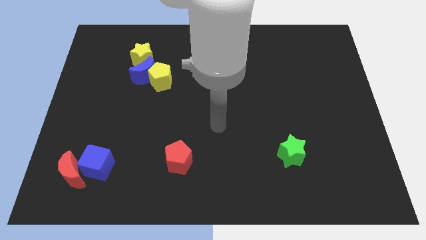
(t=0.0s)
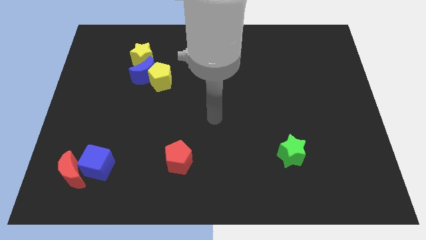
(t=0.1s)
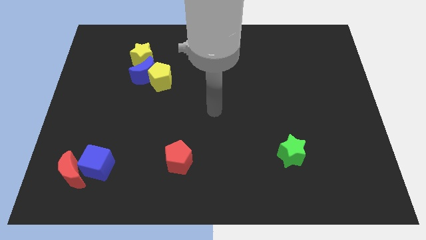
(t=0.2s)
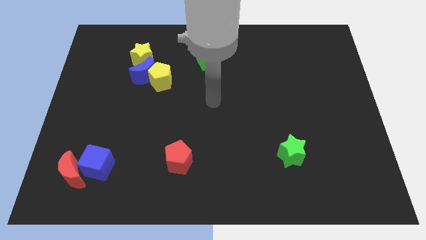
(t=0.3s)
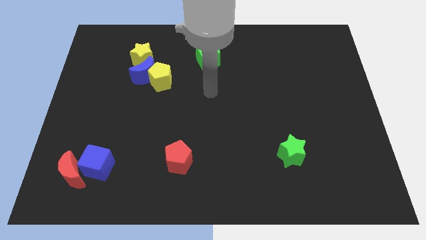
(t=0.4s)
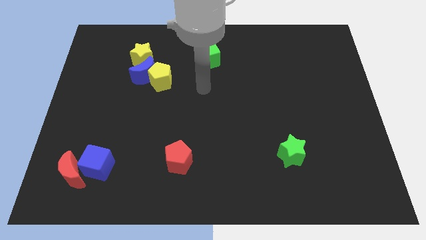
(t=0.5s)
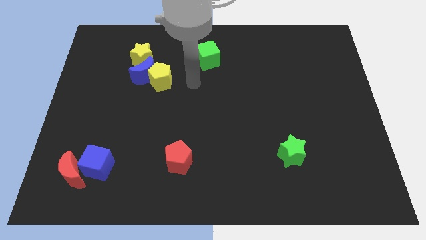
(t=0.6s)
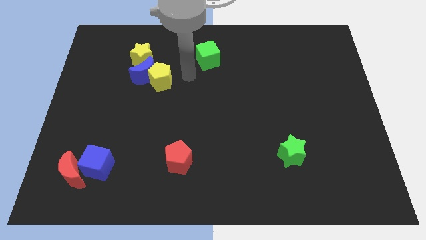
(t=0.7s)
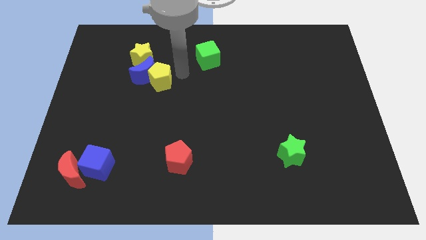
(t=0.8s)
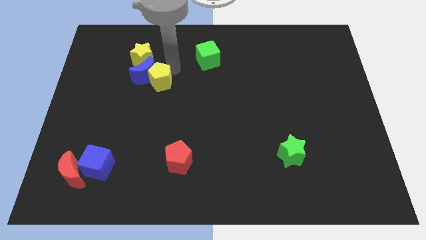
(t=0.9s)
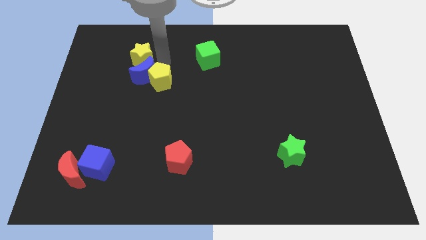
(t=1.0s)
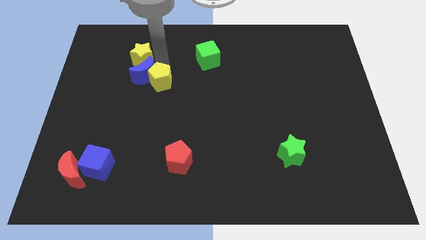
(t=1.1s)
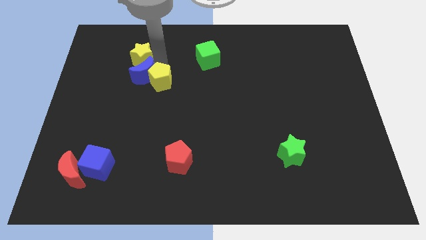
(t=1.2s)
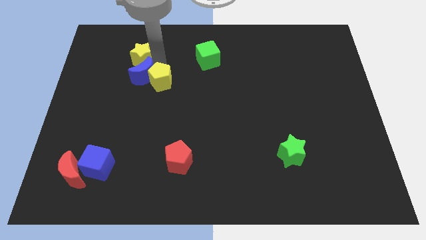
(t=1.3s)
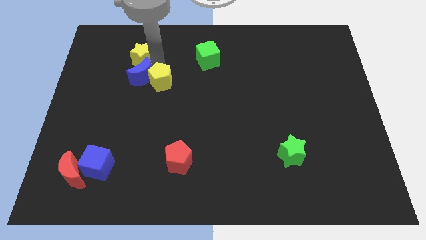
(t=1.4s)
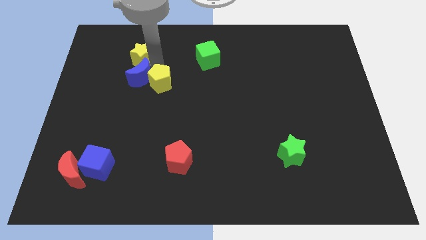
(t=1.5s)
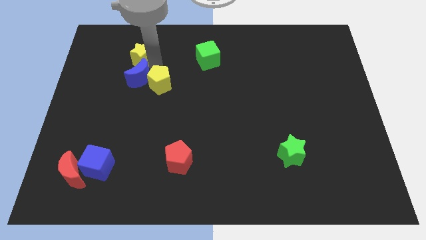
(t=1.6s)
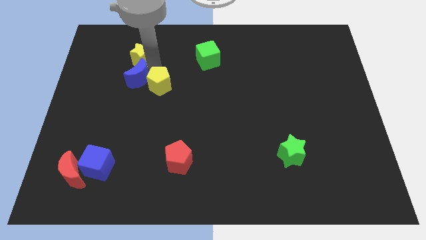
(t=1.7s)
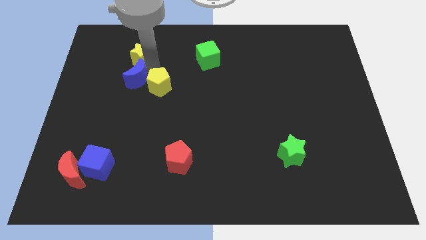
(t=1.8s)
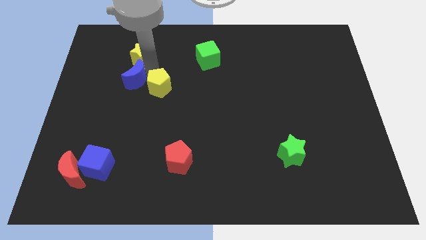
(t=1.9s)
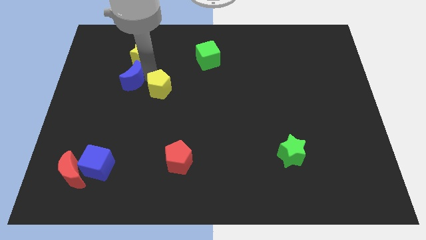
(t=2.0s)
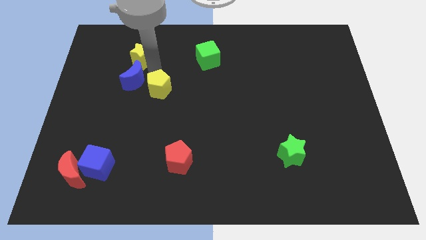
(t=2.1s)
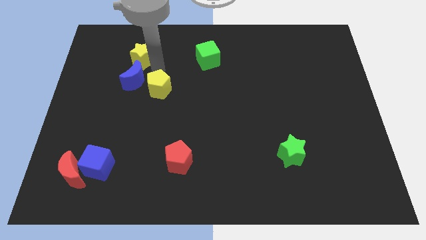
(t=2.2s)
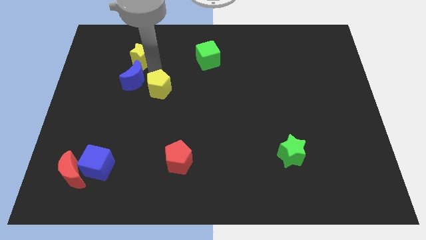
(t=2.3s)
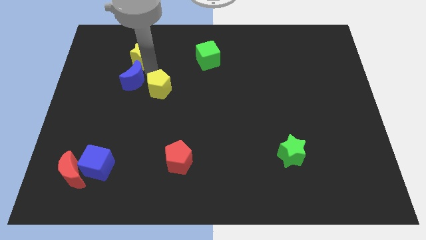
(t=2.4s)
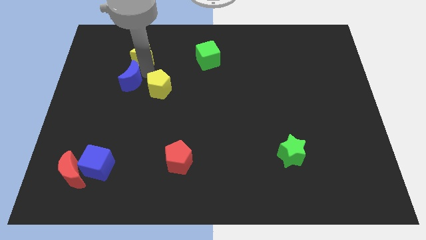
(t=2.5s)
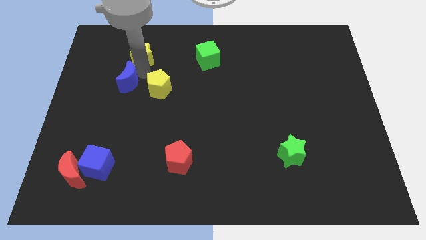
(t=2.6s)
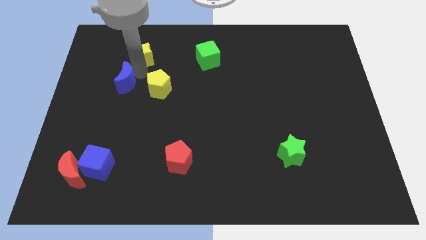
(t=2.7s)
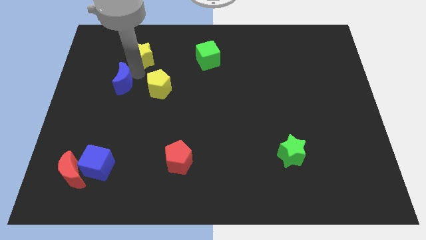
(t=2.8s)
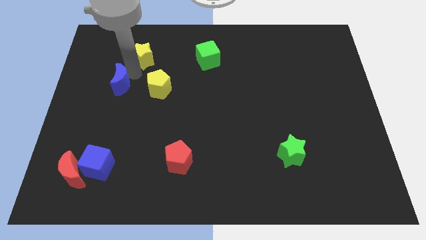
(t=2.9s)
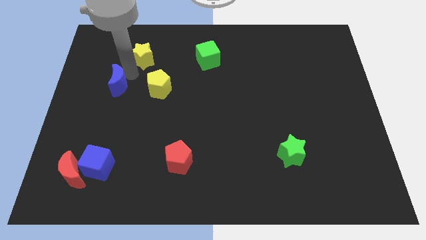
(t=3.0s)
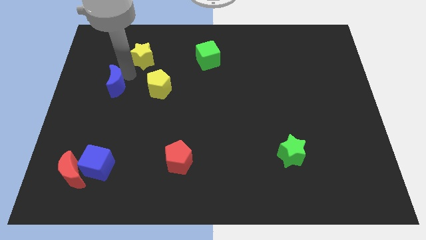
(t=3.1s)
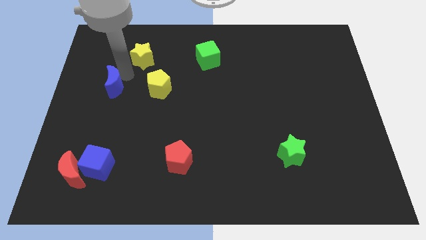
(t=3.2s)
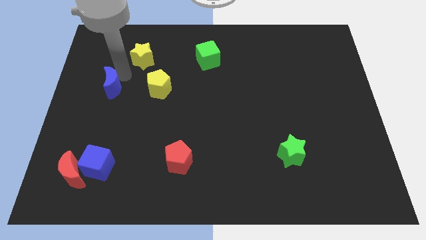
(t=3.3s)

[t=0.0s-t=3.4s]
separate the blue moon from the yellow pentagon and yellow star

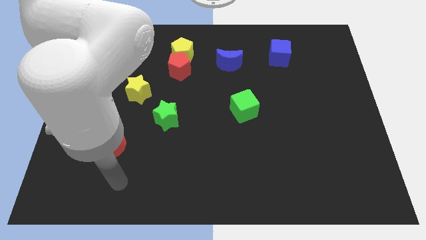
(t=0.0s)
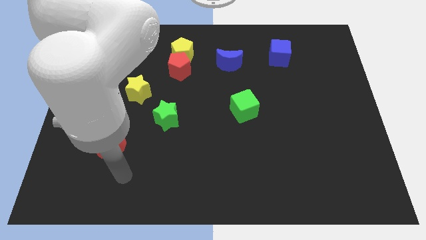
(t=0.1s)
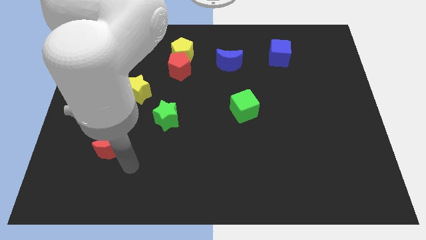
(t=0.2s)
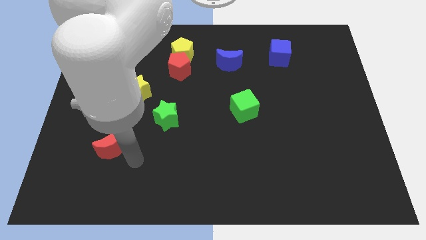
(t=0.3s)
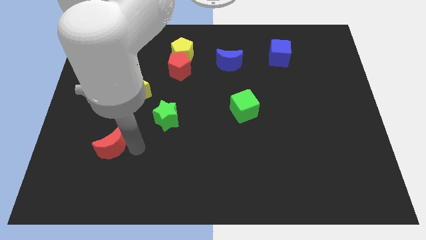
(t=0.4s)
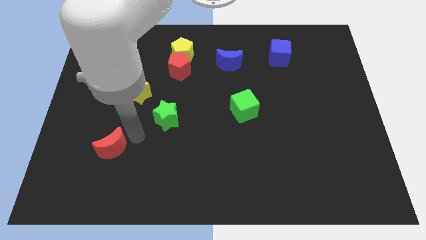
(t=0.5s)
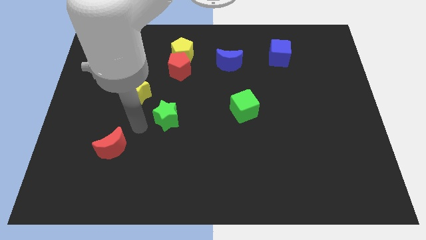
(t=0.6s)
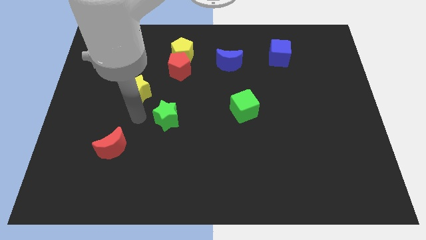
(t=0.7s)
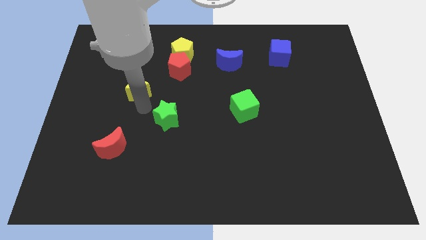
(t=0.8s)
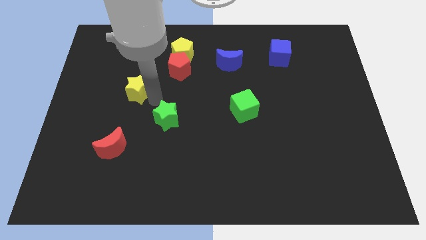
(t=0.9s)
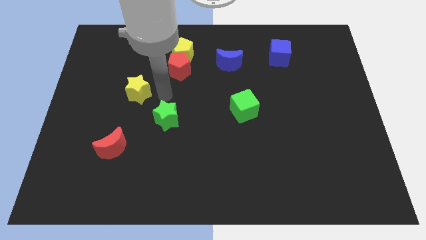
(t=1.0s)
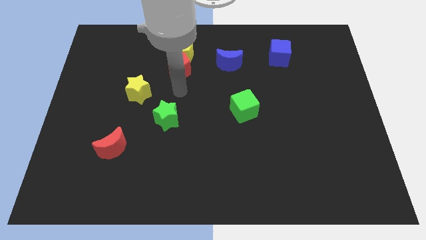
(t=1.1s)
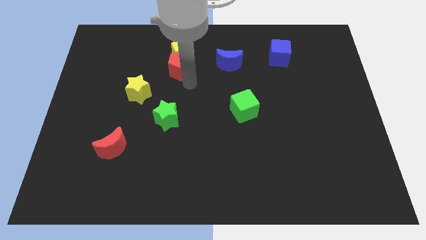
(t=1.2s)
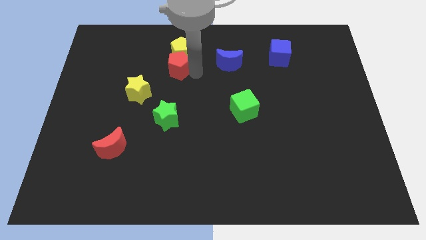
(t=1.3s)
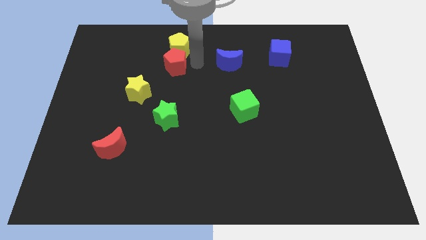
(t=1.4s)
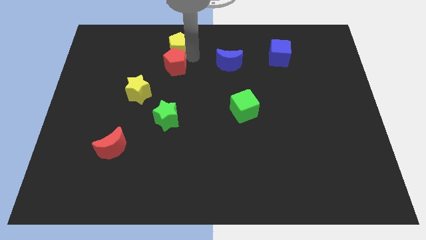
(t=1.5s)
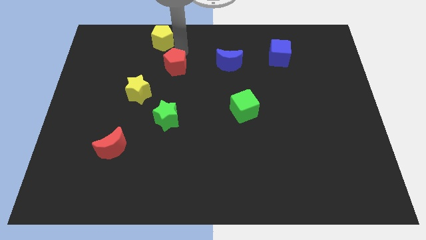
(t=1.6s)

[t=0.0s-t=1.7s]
pull the red pentagon apart from the yellow pentagon

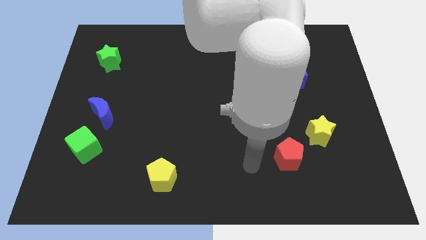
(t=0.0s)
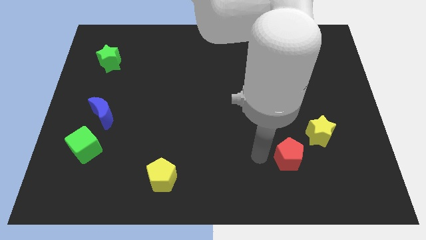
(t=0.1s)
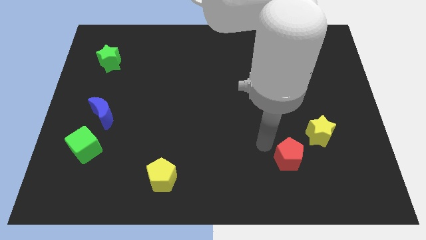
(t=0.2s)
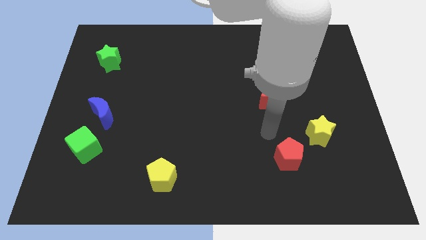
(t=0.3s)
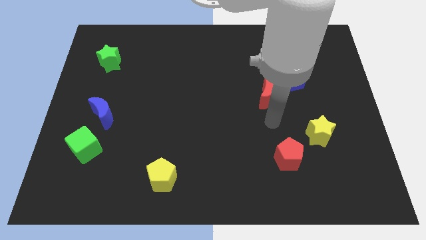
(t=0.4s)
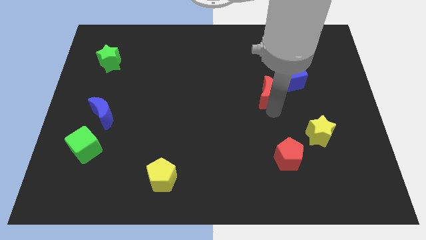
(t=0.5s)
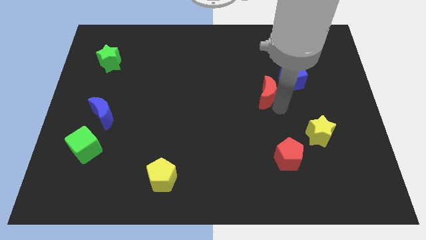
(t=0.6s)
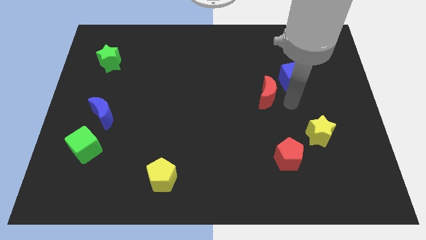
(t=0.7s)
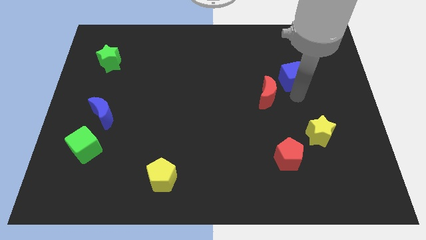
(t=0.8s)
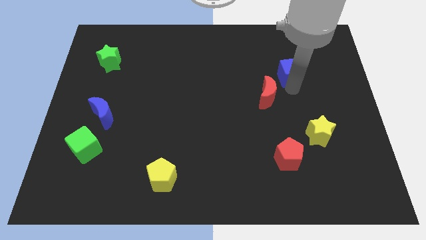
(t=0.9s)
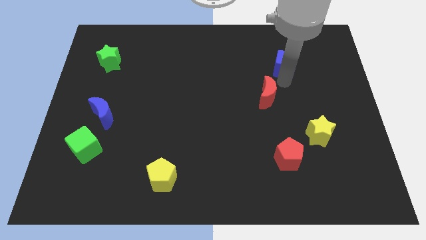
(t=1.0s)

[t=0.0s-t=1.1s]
move the red moon away from the blue cube

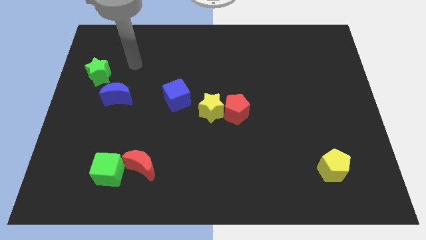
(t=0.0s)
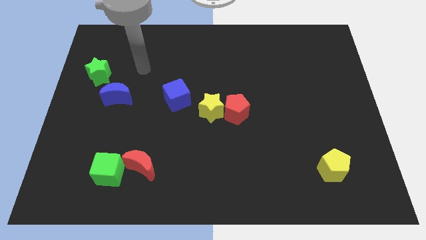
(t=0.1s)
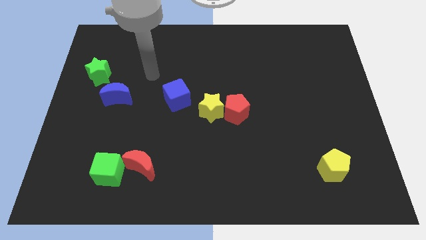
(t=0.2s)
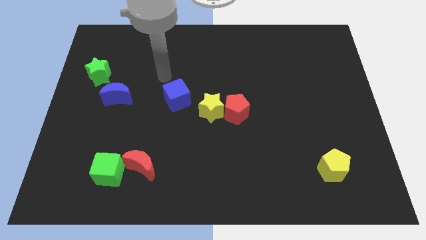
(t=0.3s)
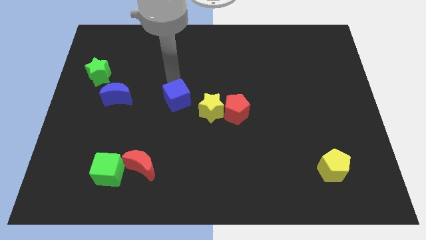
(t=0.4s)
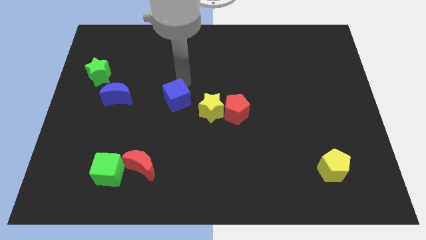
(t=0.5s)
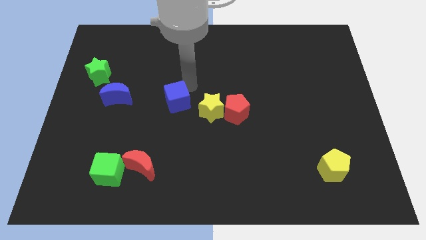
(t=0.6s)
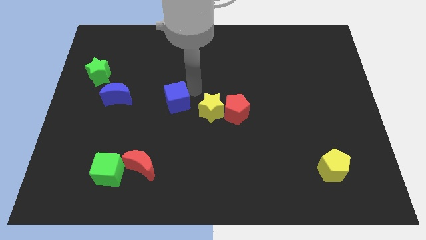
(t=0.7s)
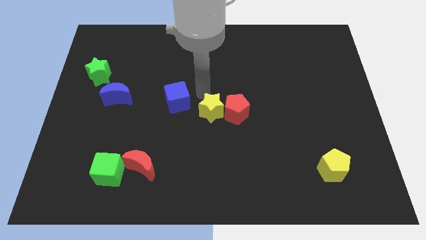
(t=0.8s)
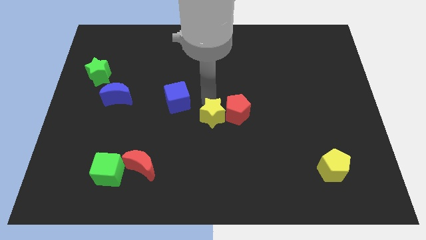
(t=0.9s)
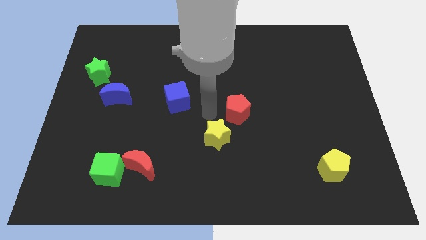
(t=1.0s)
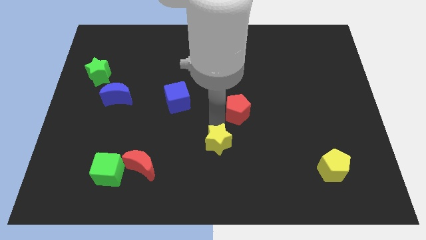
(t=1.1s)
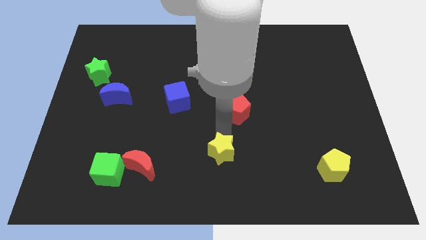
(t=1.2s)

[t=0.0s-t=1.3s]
pull the red pentagon apart from the yellow star

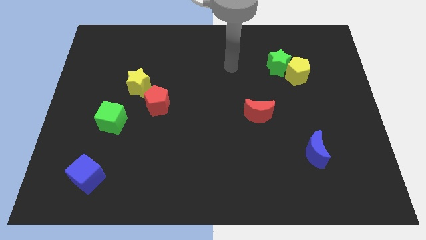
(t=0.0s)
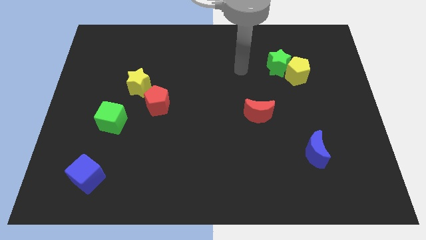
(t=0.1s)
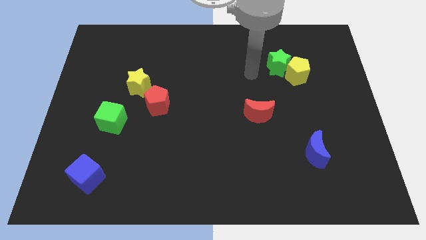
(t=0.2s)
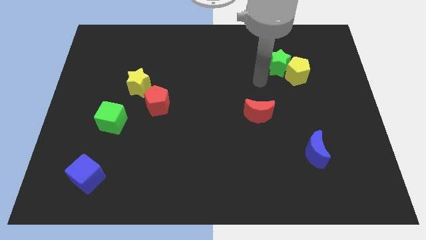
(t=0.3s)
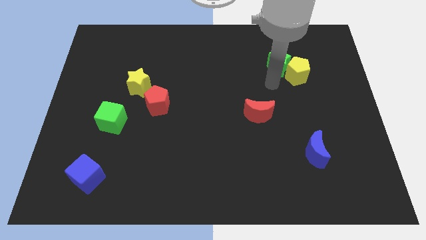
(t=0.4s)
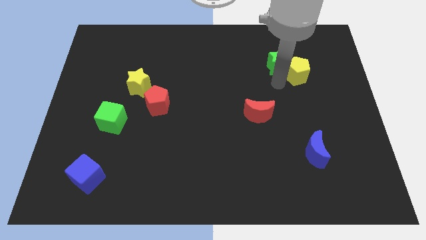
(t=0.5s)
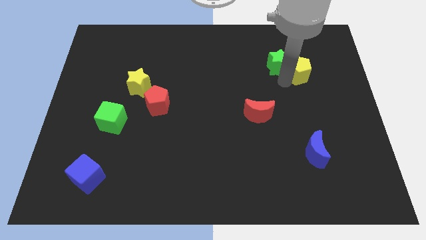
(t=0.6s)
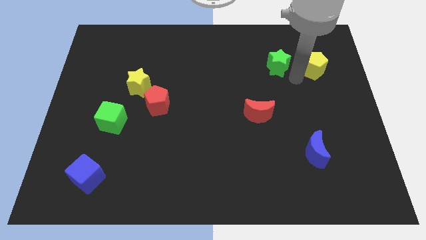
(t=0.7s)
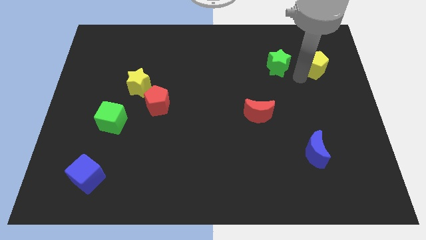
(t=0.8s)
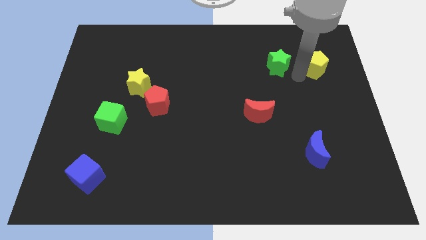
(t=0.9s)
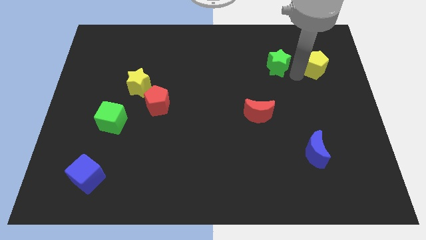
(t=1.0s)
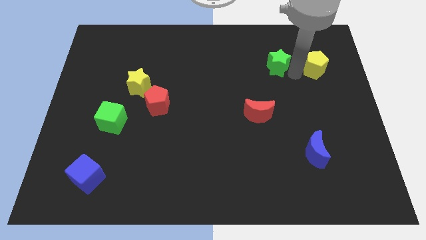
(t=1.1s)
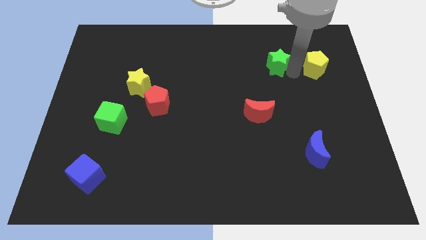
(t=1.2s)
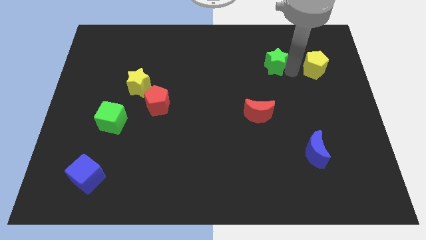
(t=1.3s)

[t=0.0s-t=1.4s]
move the green star away from the yellow pentagon

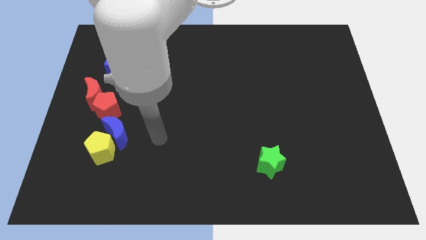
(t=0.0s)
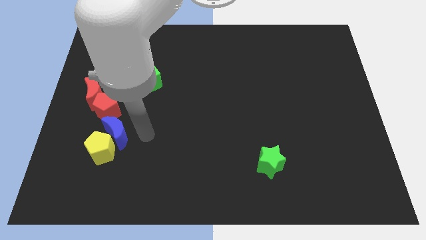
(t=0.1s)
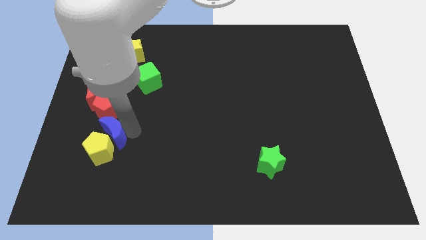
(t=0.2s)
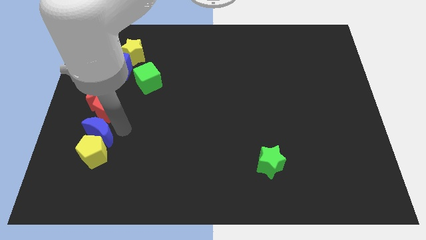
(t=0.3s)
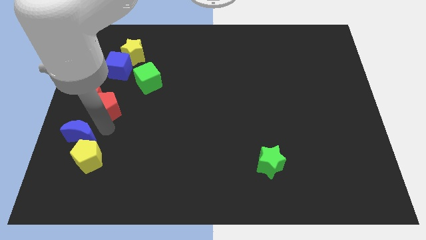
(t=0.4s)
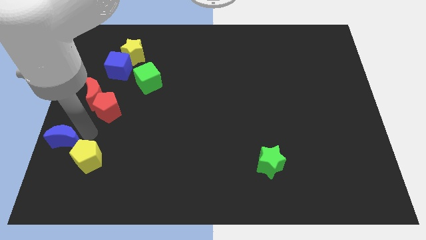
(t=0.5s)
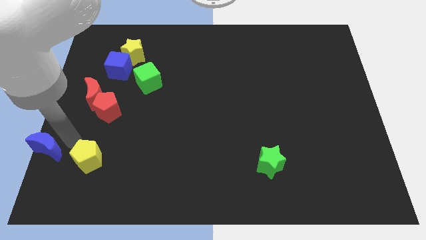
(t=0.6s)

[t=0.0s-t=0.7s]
pull the yellow pentagon apart from the blue moon
